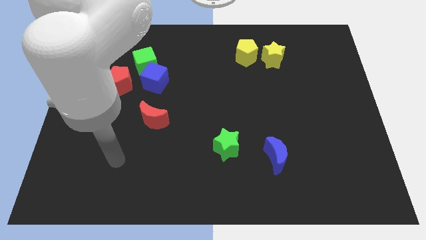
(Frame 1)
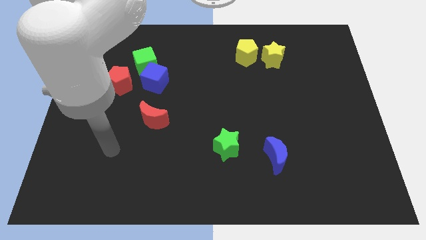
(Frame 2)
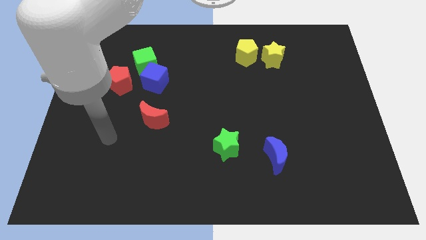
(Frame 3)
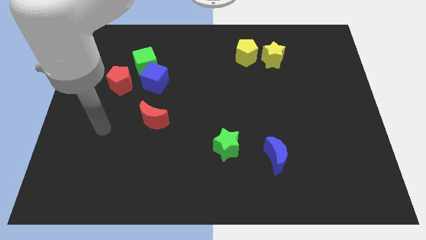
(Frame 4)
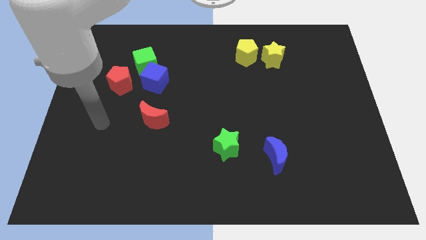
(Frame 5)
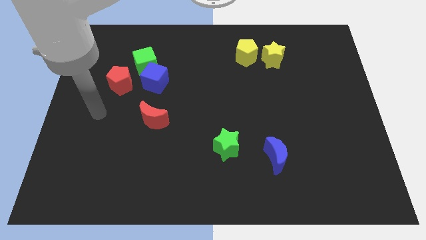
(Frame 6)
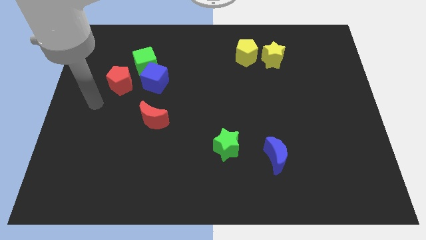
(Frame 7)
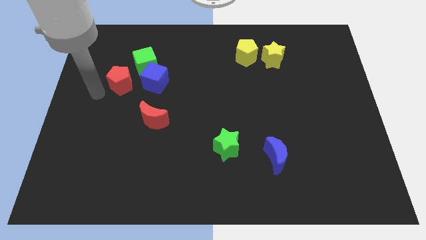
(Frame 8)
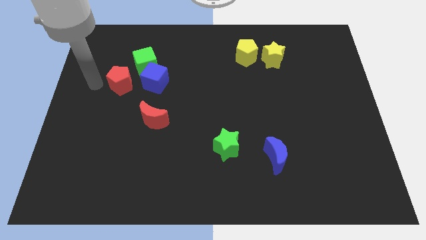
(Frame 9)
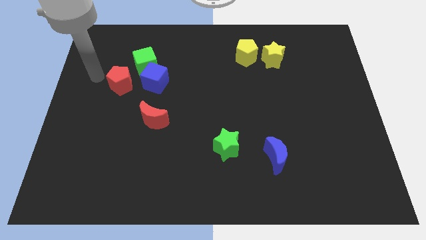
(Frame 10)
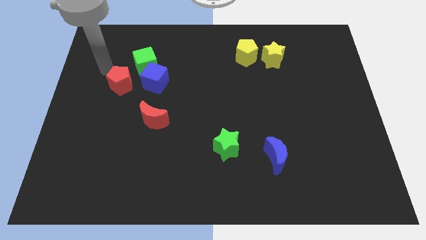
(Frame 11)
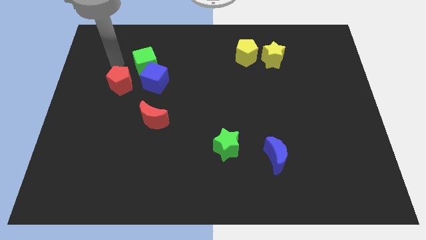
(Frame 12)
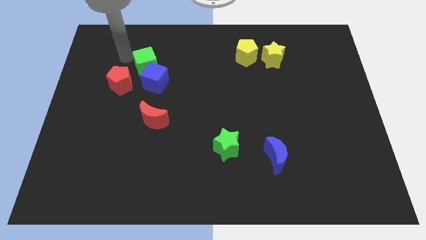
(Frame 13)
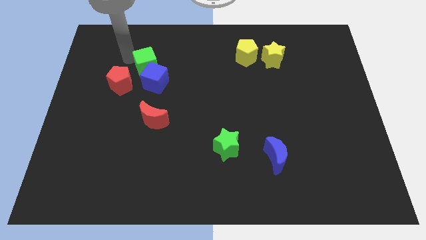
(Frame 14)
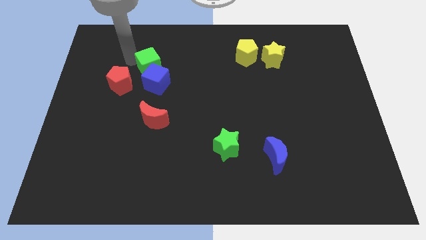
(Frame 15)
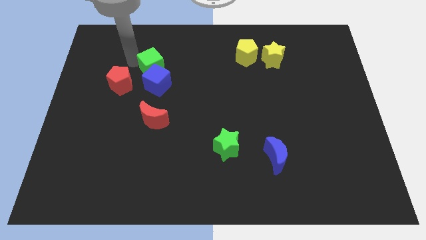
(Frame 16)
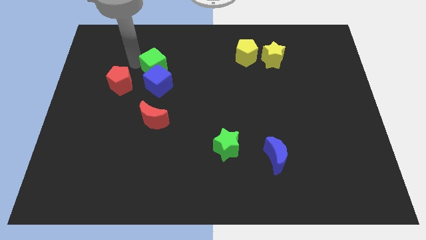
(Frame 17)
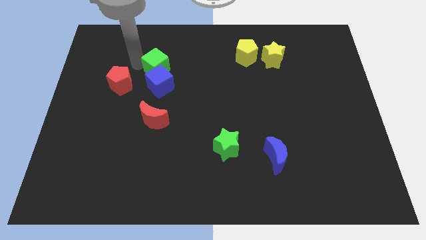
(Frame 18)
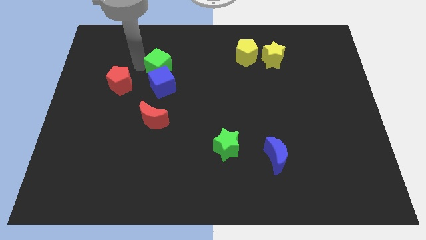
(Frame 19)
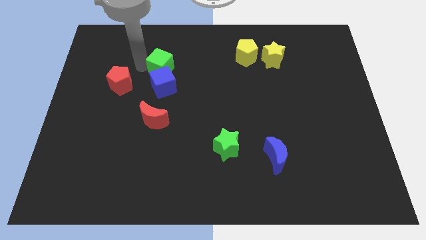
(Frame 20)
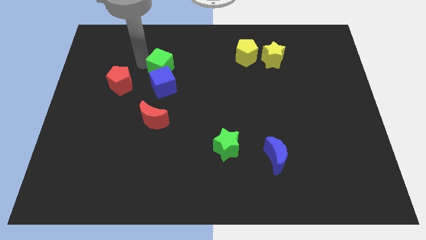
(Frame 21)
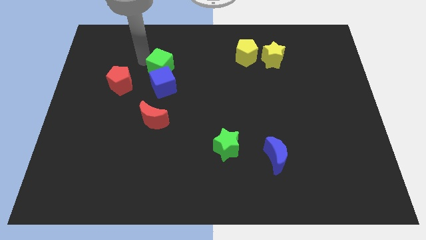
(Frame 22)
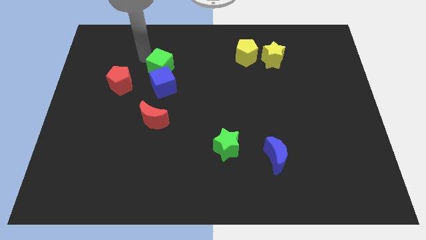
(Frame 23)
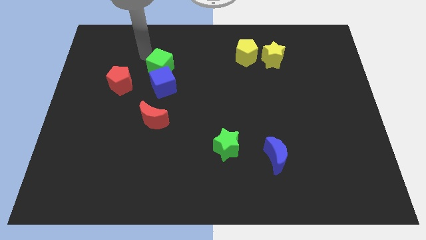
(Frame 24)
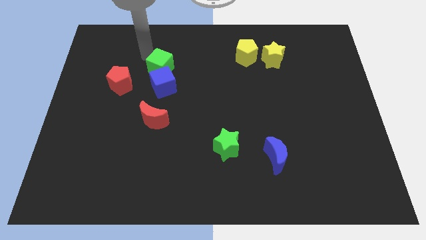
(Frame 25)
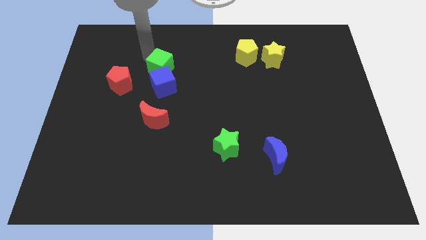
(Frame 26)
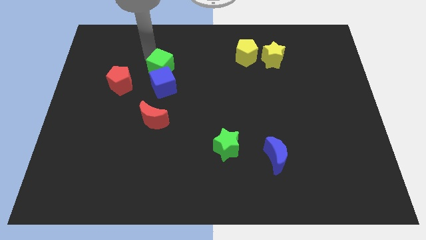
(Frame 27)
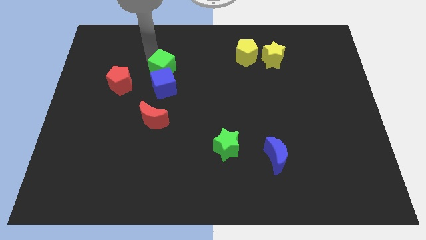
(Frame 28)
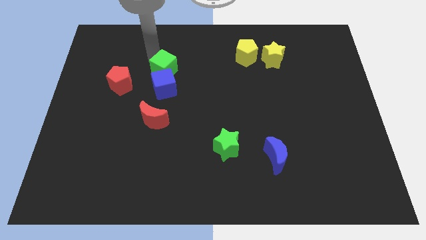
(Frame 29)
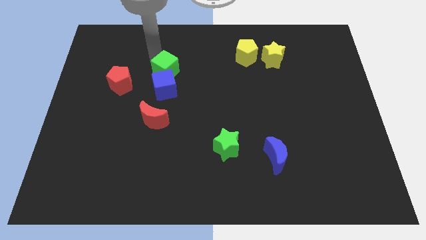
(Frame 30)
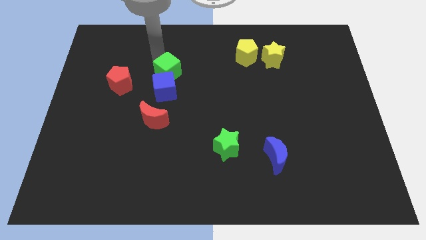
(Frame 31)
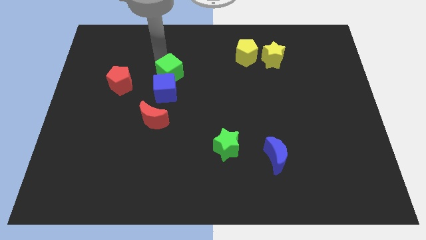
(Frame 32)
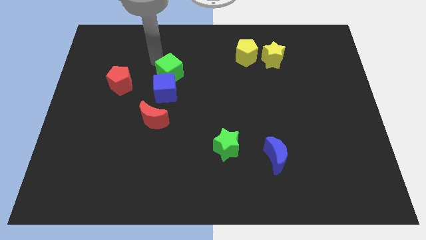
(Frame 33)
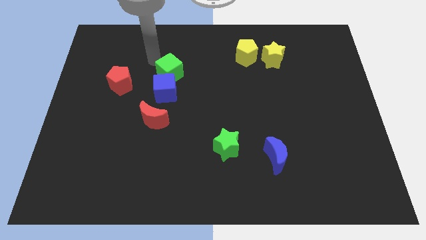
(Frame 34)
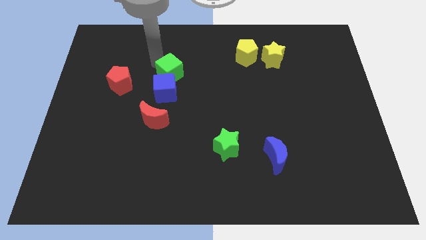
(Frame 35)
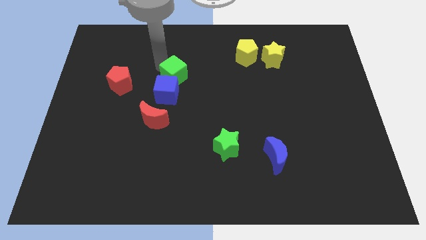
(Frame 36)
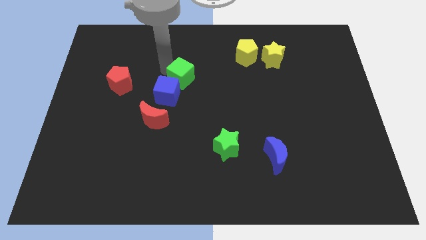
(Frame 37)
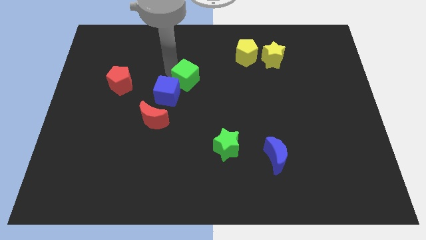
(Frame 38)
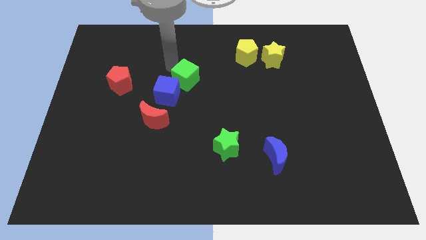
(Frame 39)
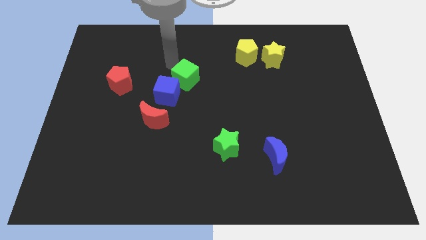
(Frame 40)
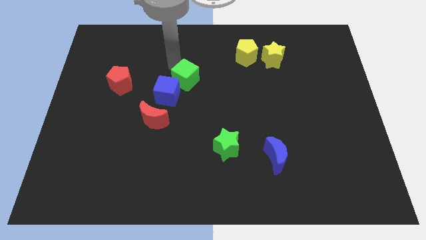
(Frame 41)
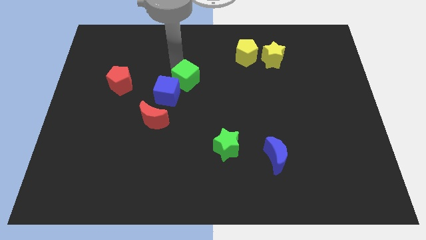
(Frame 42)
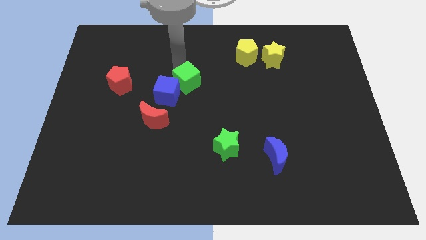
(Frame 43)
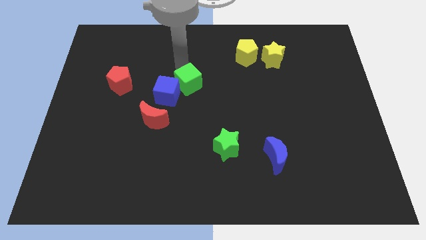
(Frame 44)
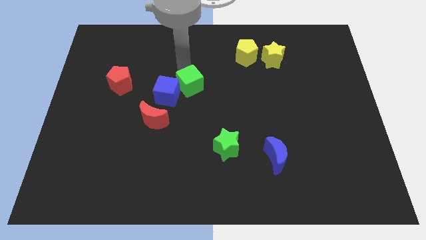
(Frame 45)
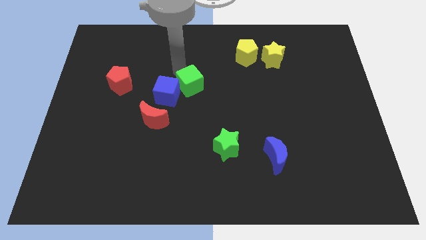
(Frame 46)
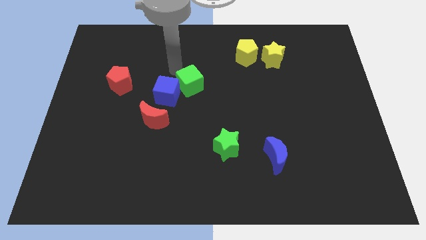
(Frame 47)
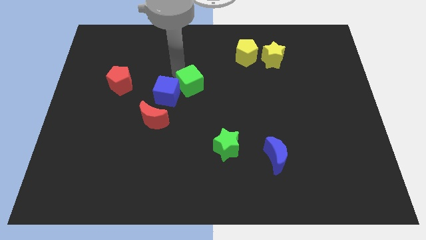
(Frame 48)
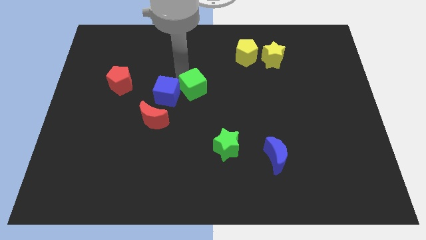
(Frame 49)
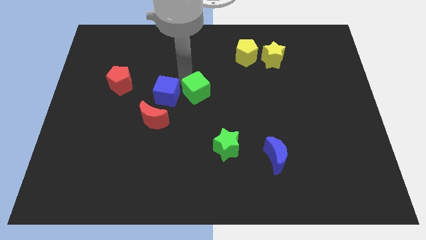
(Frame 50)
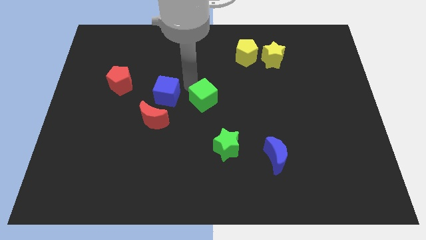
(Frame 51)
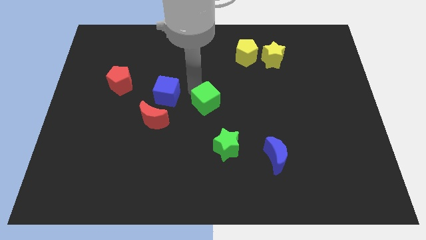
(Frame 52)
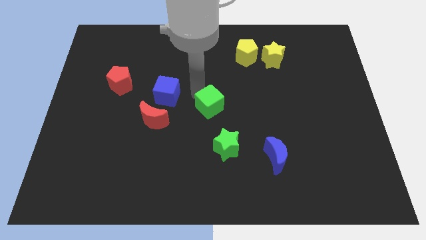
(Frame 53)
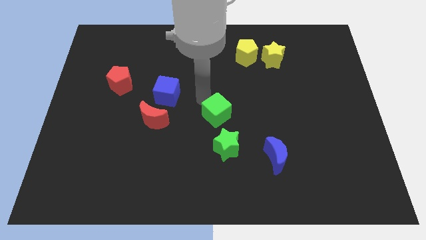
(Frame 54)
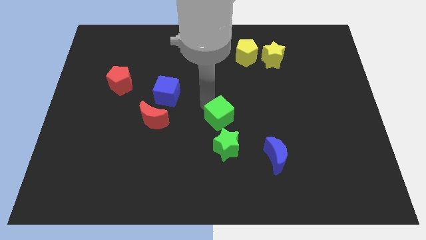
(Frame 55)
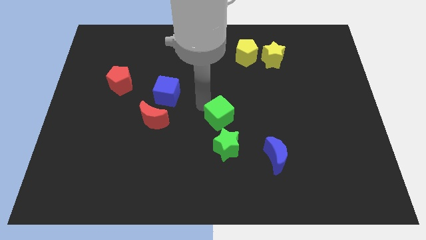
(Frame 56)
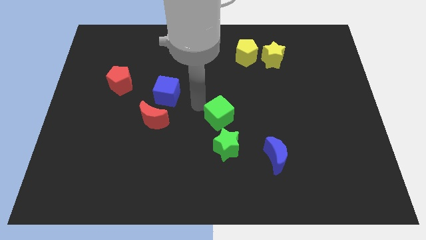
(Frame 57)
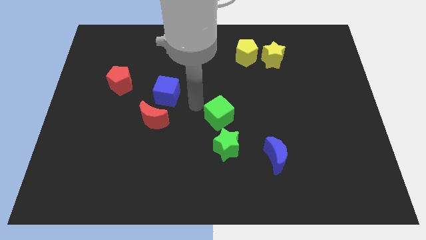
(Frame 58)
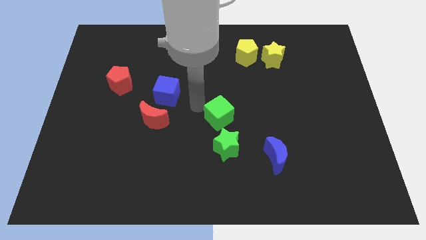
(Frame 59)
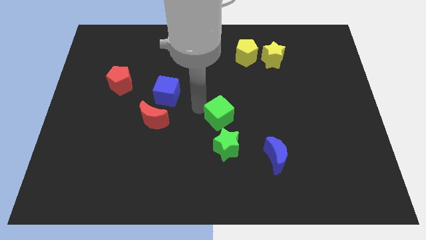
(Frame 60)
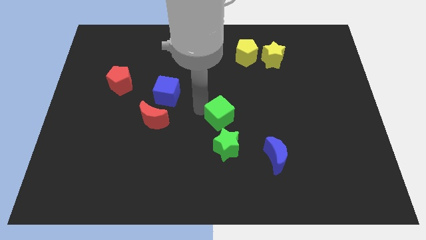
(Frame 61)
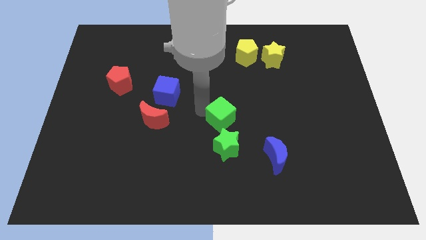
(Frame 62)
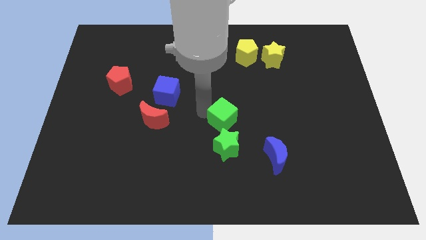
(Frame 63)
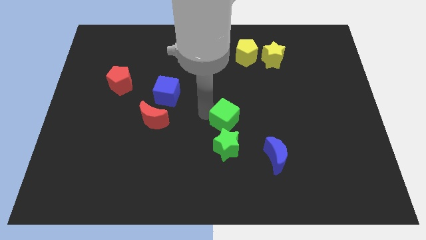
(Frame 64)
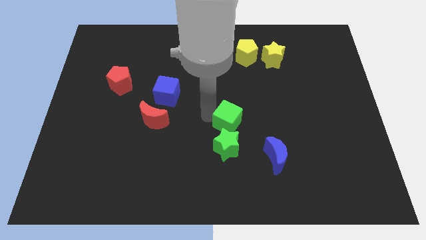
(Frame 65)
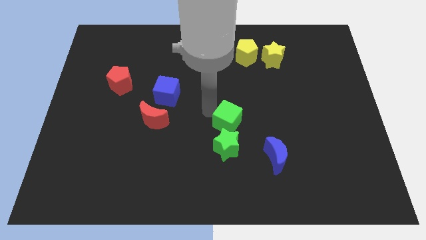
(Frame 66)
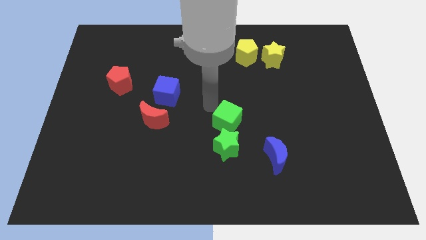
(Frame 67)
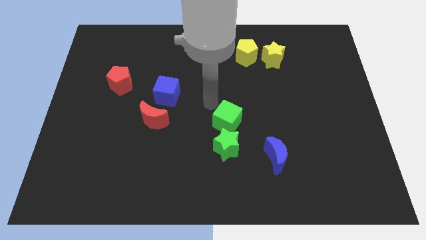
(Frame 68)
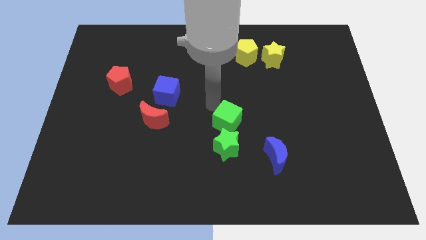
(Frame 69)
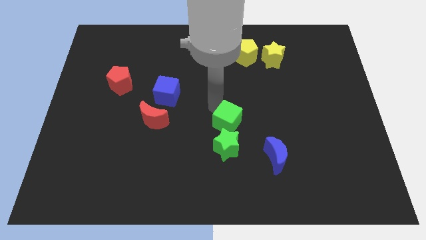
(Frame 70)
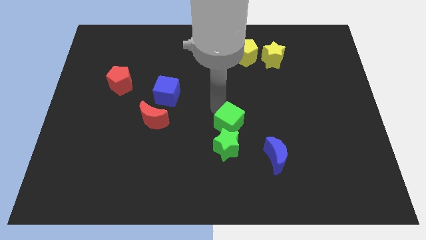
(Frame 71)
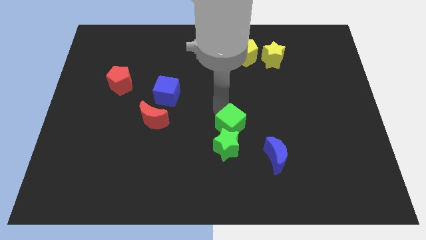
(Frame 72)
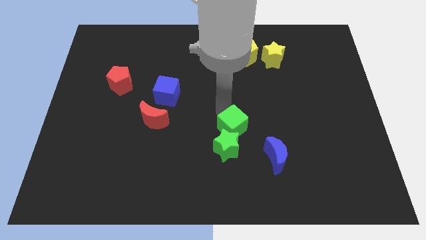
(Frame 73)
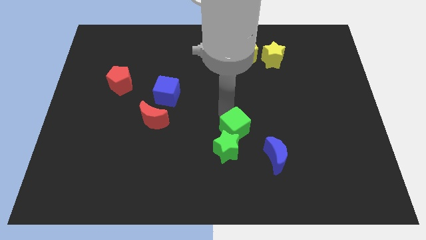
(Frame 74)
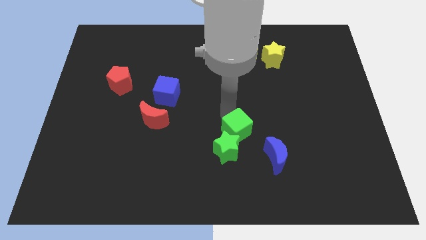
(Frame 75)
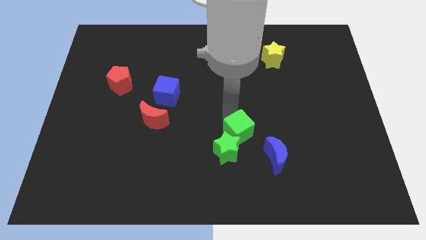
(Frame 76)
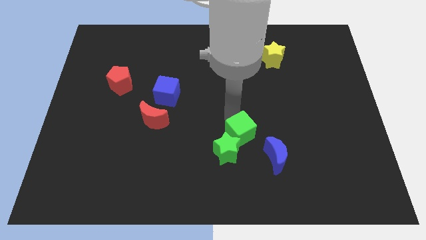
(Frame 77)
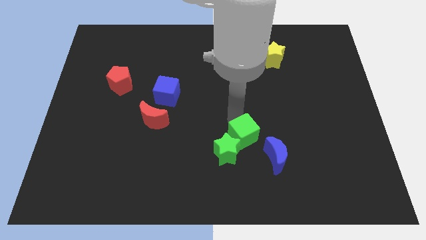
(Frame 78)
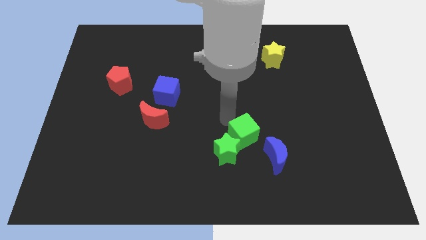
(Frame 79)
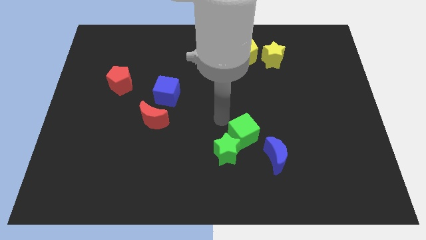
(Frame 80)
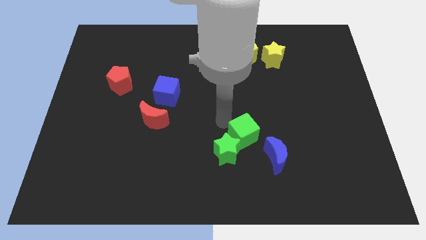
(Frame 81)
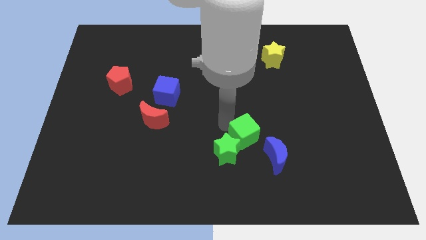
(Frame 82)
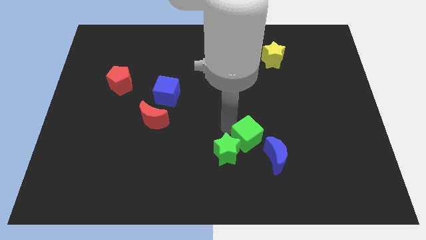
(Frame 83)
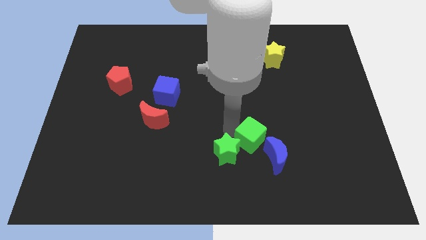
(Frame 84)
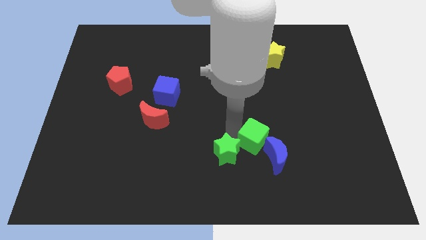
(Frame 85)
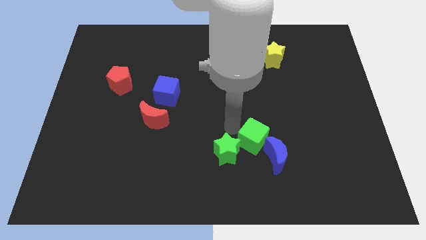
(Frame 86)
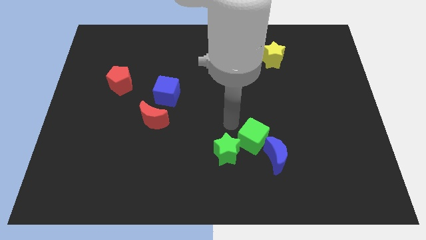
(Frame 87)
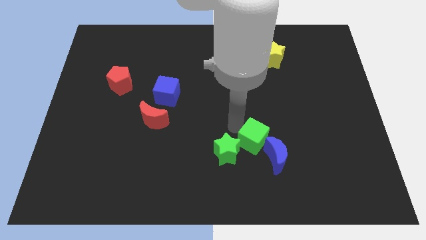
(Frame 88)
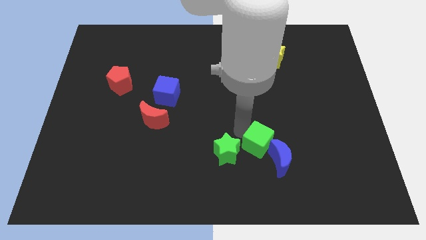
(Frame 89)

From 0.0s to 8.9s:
push the green cube to the blue moon
